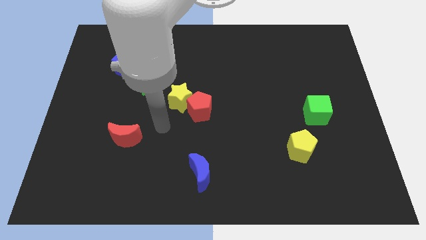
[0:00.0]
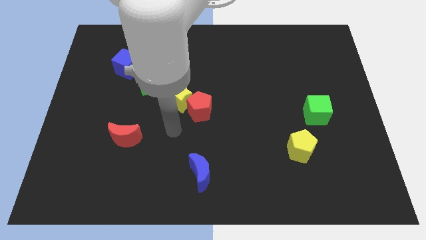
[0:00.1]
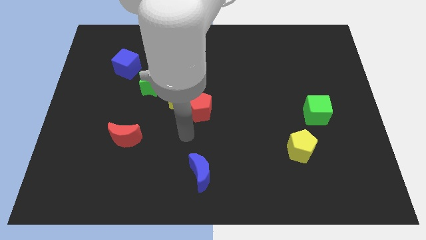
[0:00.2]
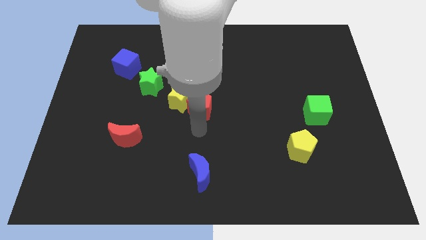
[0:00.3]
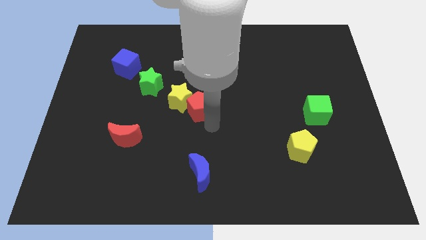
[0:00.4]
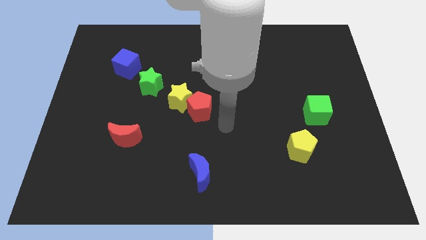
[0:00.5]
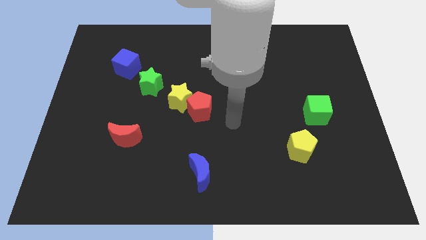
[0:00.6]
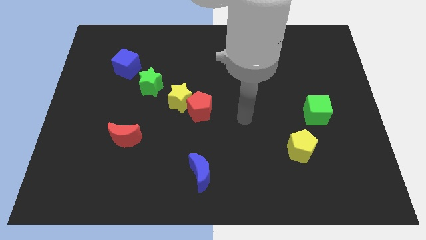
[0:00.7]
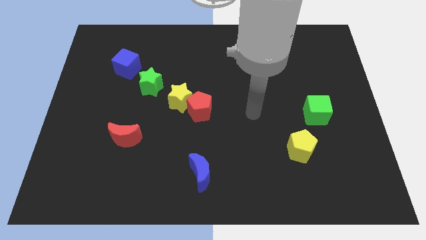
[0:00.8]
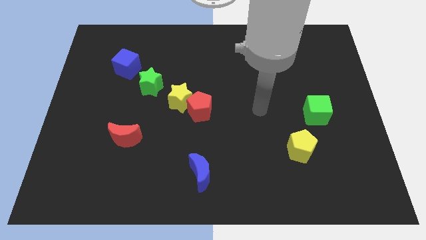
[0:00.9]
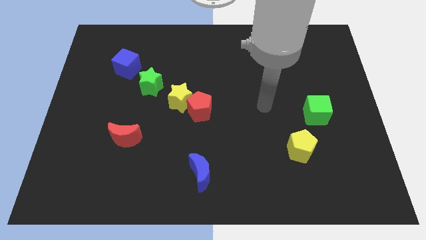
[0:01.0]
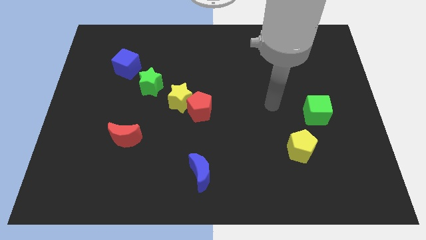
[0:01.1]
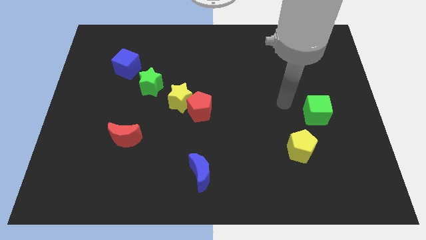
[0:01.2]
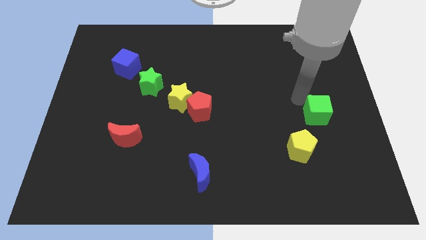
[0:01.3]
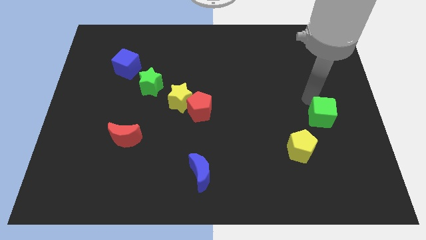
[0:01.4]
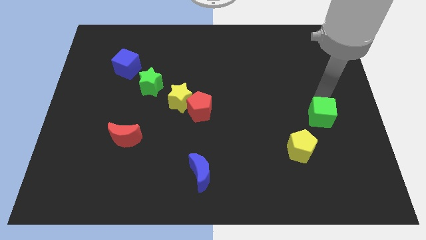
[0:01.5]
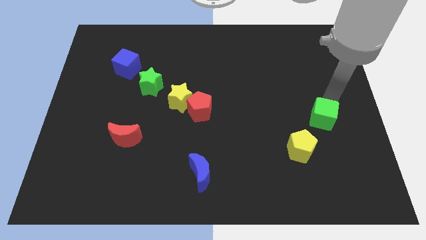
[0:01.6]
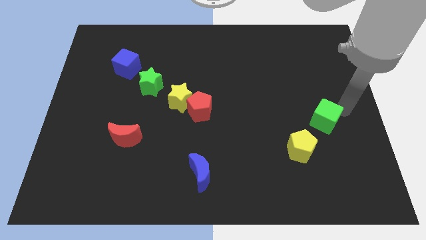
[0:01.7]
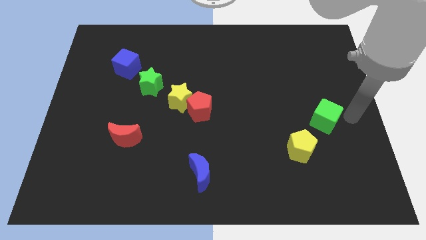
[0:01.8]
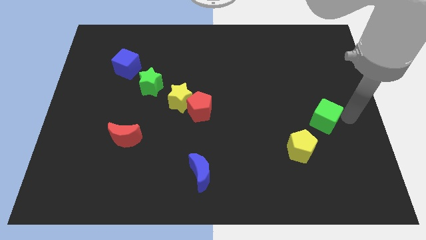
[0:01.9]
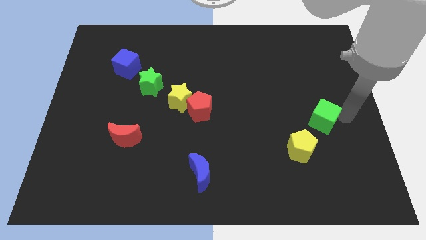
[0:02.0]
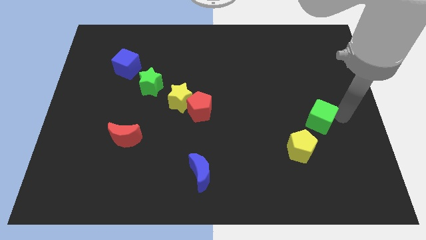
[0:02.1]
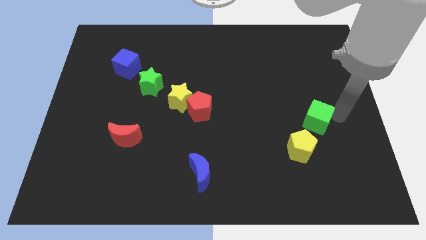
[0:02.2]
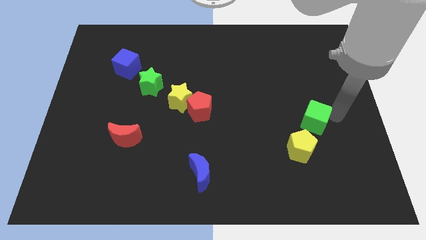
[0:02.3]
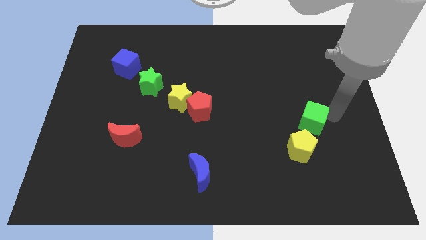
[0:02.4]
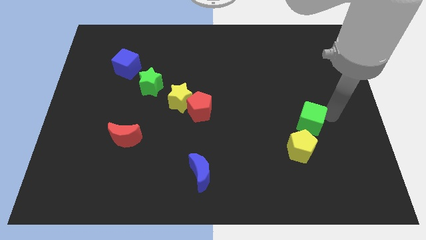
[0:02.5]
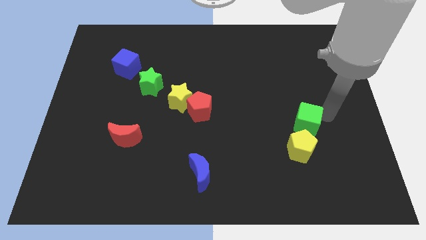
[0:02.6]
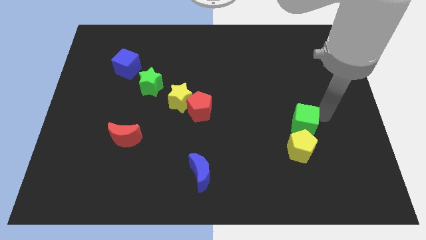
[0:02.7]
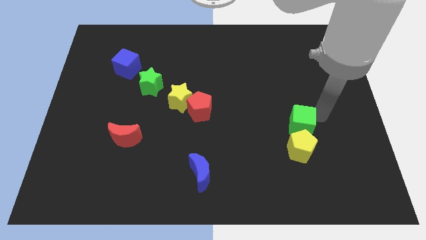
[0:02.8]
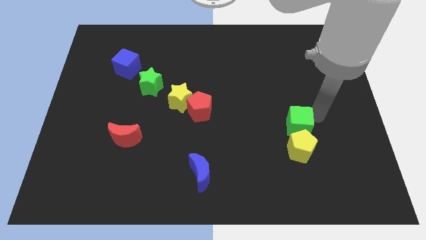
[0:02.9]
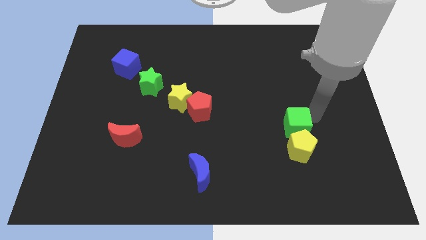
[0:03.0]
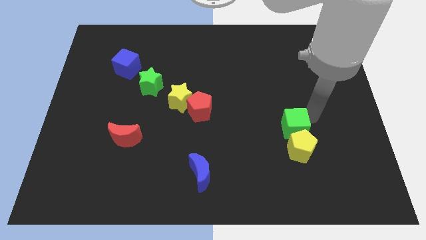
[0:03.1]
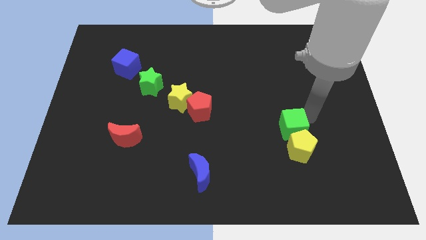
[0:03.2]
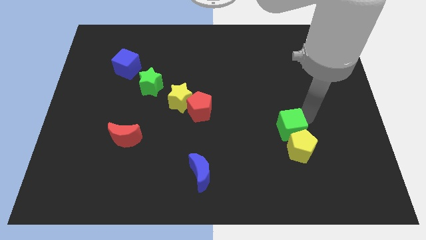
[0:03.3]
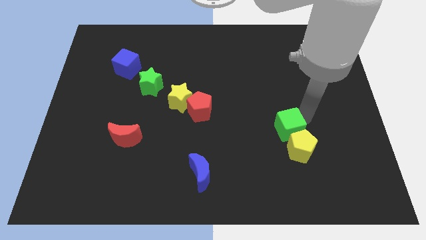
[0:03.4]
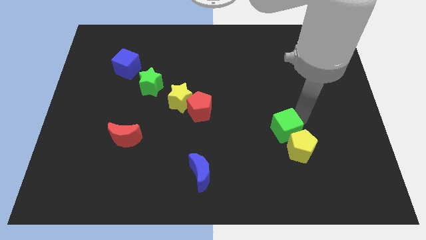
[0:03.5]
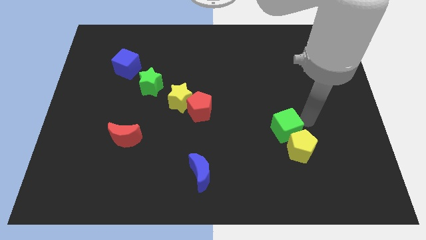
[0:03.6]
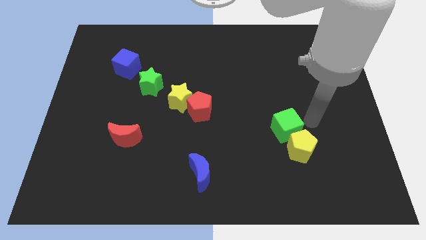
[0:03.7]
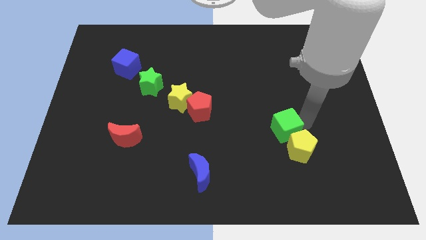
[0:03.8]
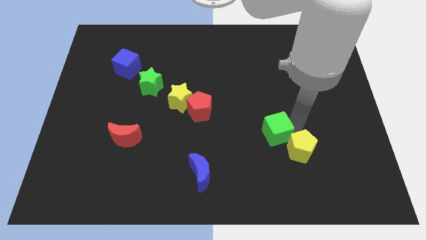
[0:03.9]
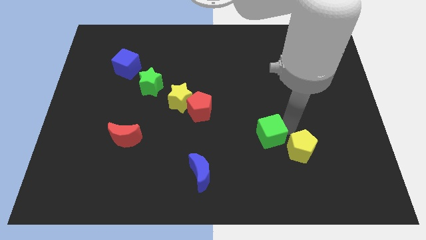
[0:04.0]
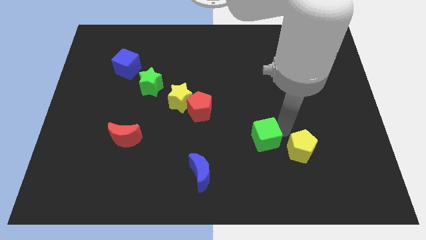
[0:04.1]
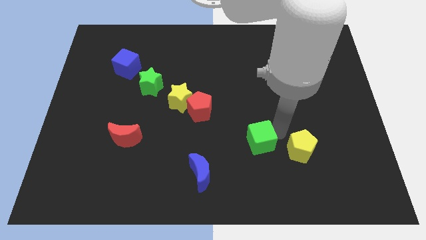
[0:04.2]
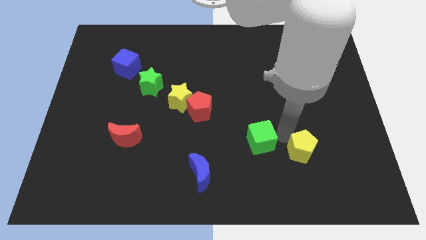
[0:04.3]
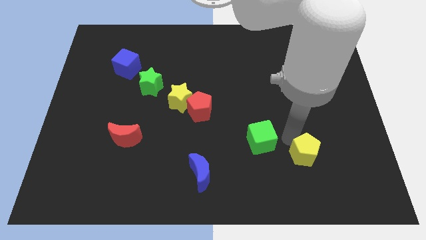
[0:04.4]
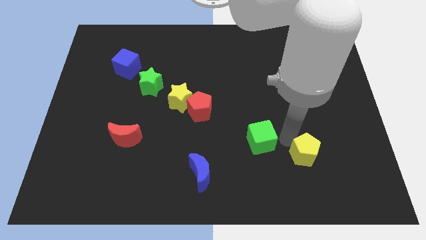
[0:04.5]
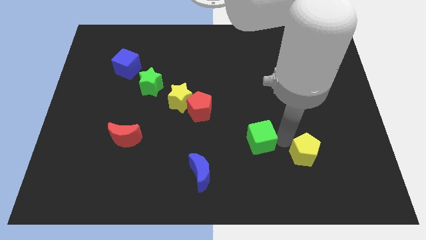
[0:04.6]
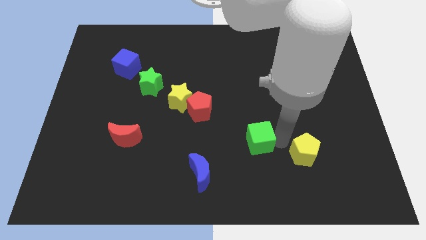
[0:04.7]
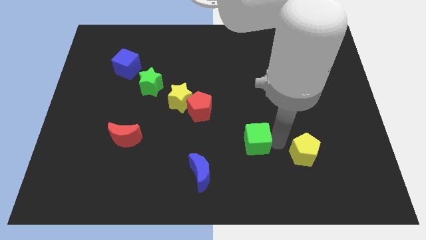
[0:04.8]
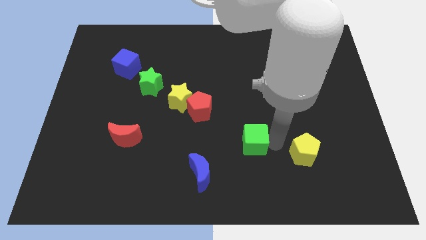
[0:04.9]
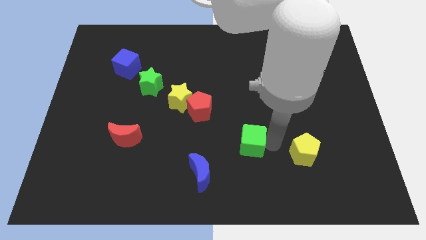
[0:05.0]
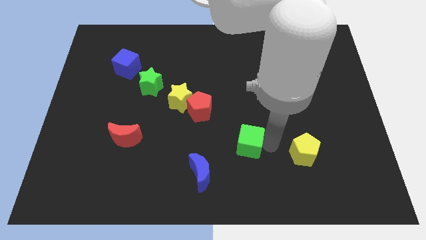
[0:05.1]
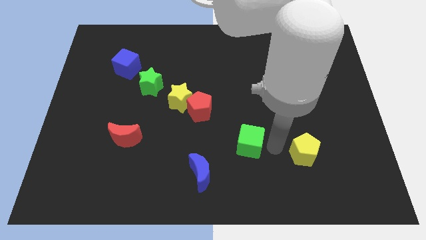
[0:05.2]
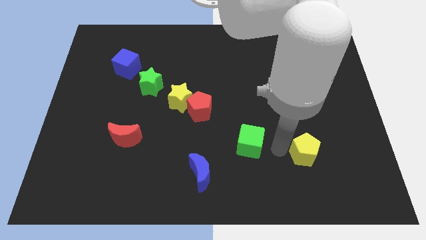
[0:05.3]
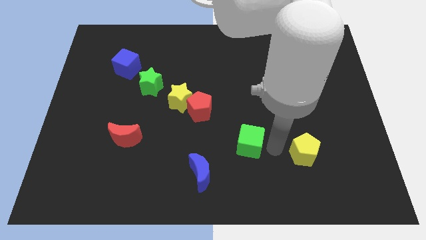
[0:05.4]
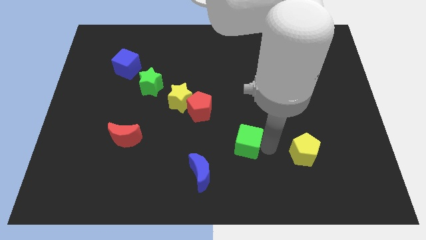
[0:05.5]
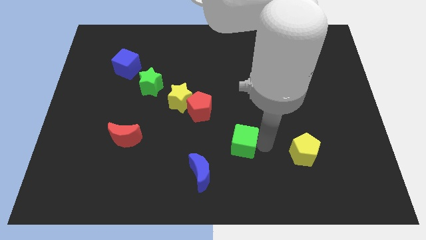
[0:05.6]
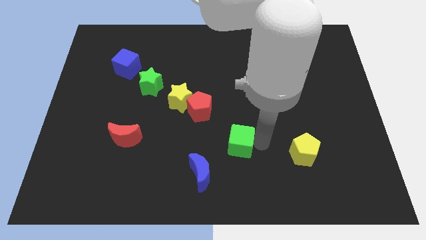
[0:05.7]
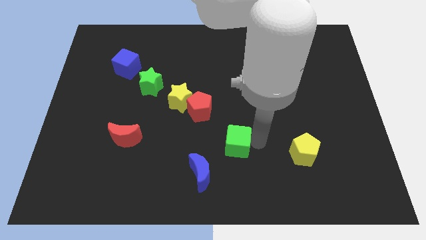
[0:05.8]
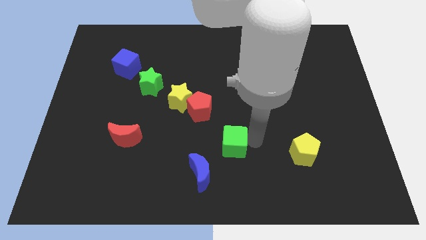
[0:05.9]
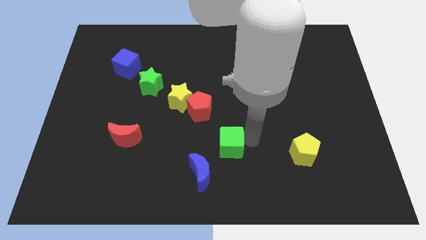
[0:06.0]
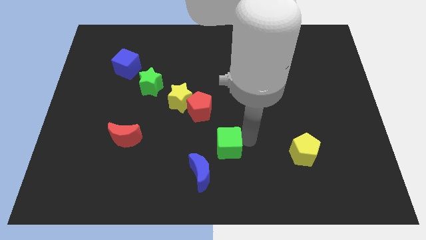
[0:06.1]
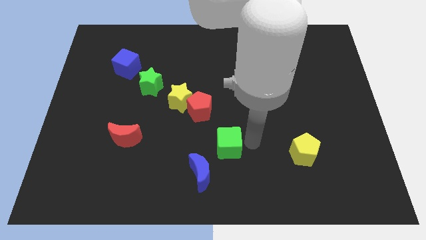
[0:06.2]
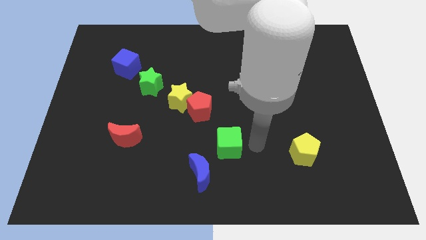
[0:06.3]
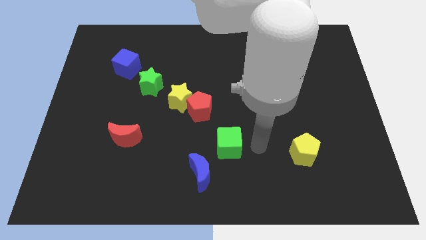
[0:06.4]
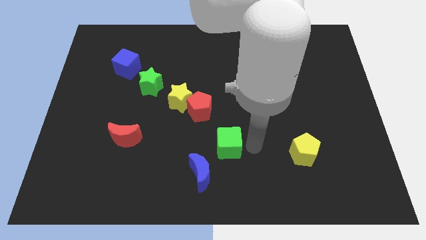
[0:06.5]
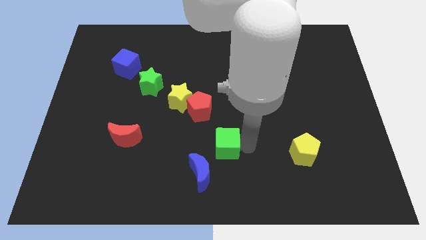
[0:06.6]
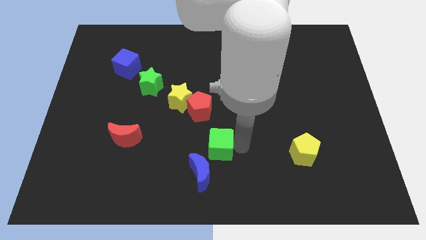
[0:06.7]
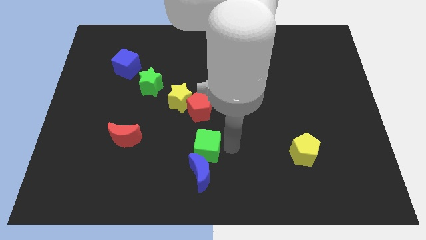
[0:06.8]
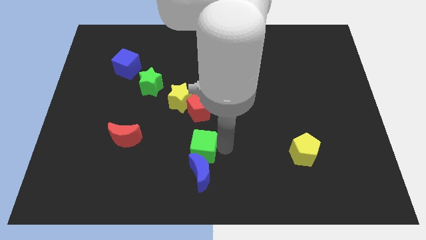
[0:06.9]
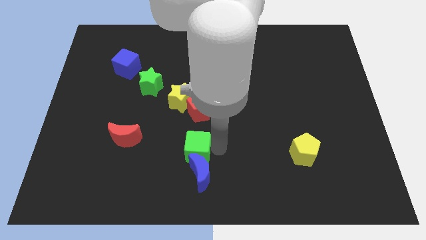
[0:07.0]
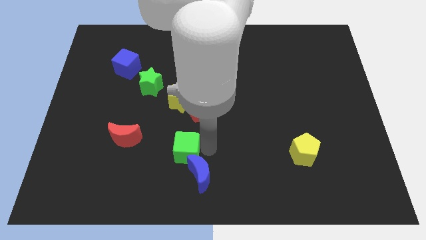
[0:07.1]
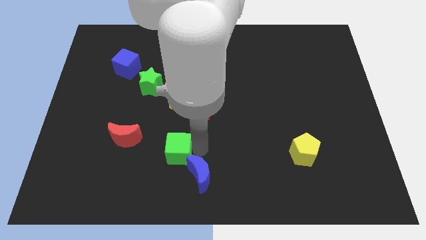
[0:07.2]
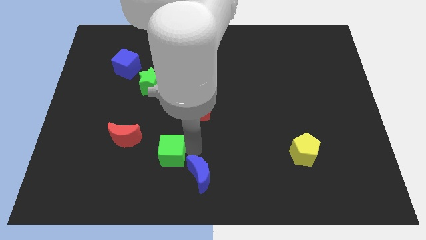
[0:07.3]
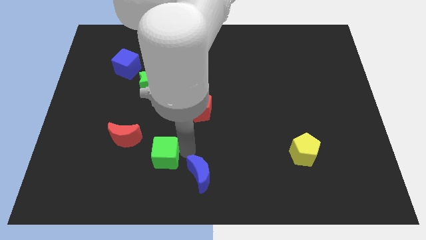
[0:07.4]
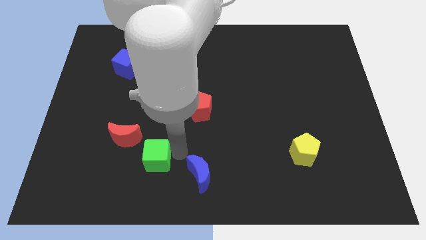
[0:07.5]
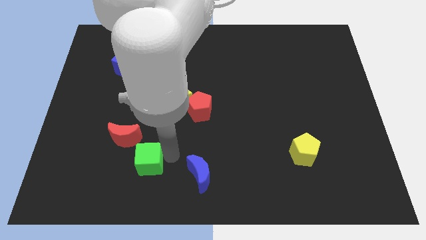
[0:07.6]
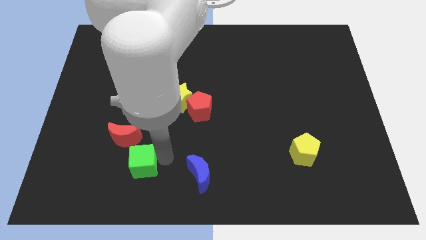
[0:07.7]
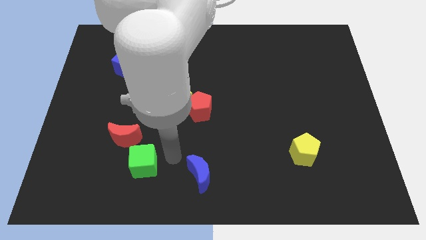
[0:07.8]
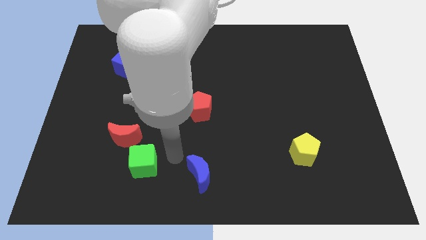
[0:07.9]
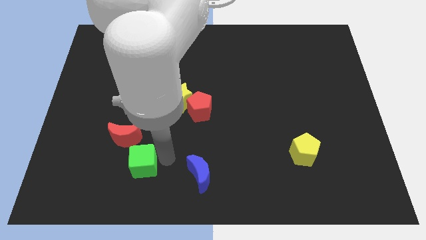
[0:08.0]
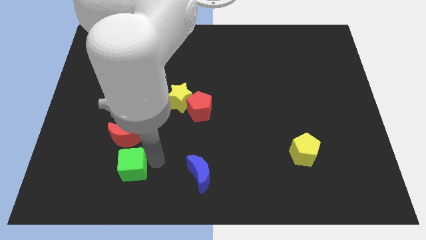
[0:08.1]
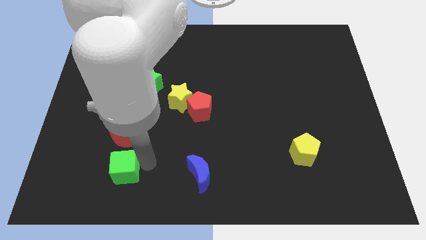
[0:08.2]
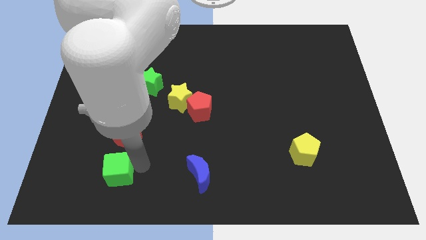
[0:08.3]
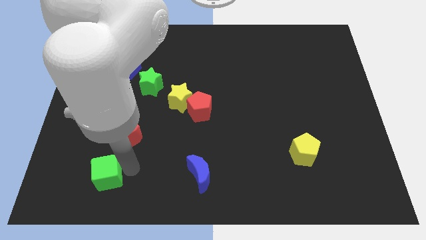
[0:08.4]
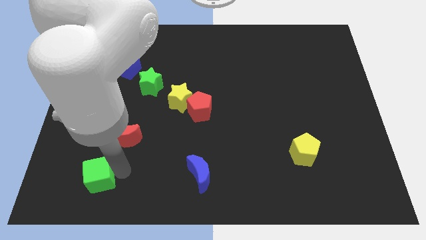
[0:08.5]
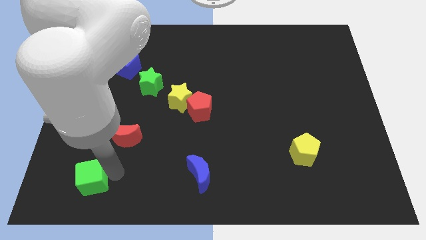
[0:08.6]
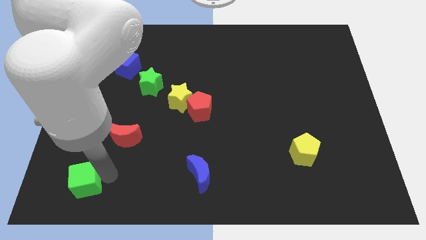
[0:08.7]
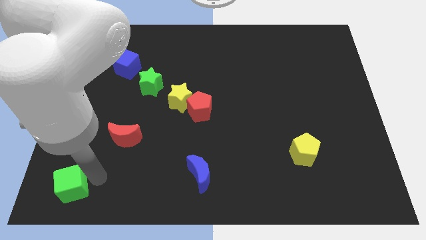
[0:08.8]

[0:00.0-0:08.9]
slide the green cube to the bottom left
